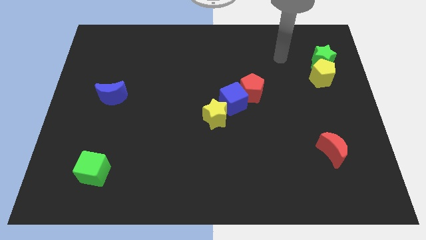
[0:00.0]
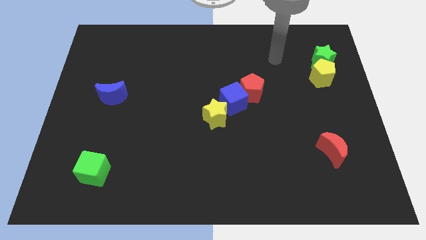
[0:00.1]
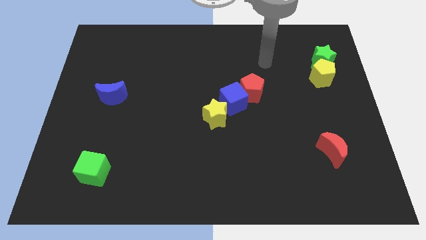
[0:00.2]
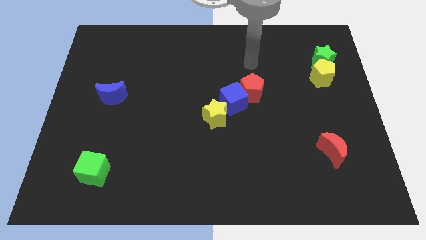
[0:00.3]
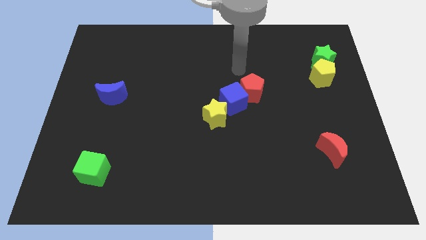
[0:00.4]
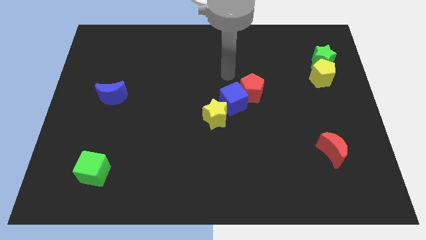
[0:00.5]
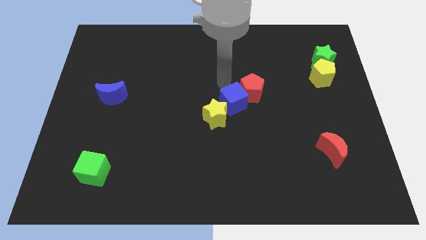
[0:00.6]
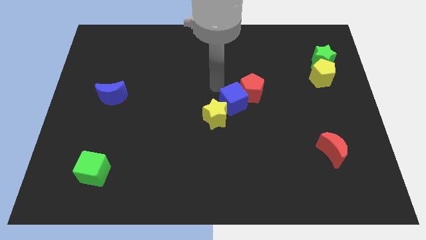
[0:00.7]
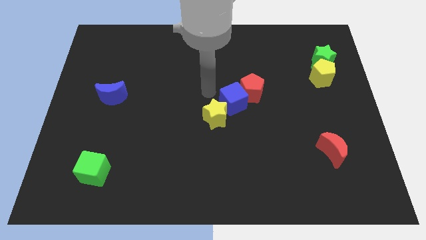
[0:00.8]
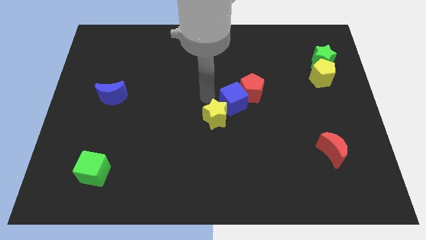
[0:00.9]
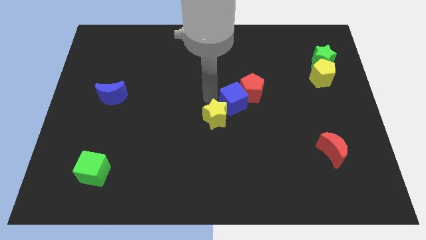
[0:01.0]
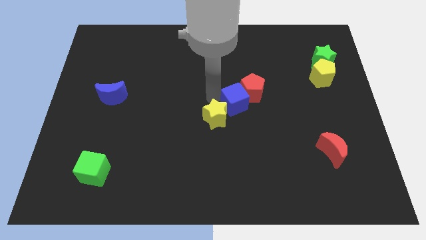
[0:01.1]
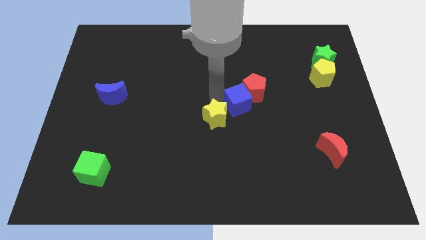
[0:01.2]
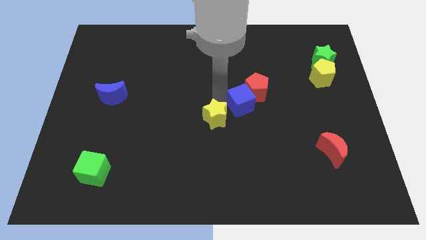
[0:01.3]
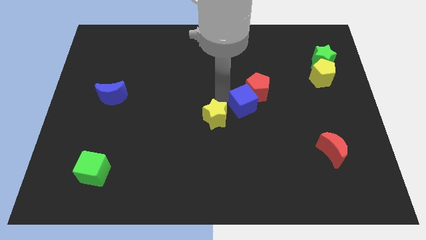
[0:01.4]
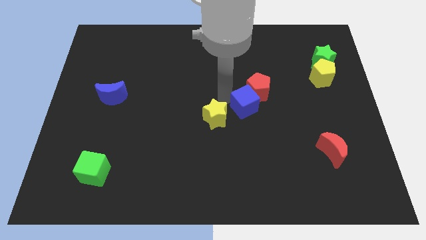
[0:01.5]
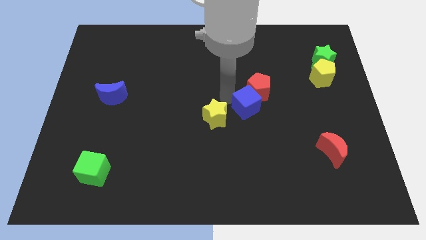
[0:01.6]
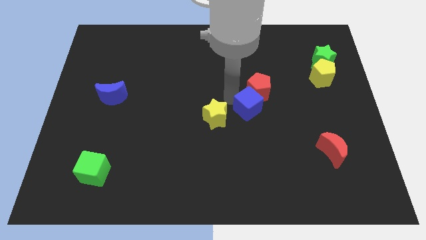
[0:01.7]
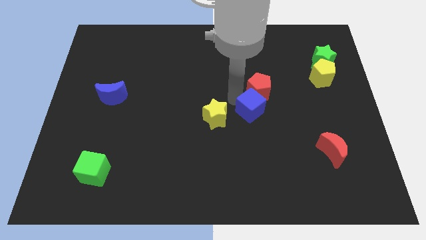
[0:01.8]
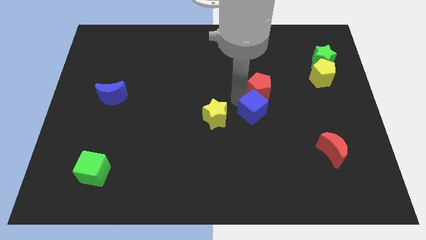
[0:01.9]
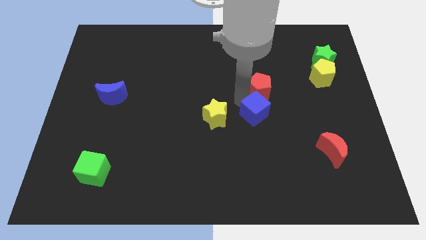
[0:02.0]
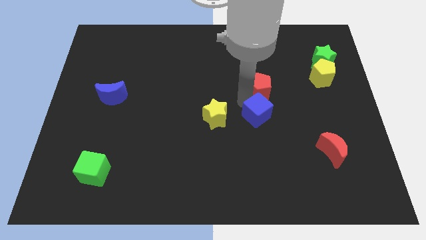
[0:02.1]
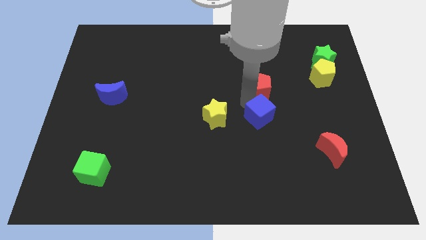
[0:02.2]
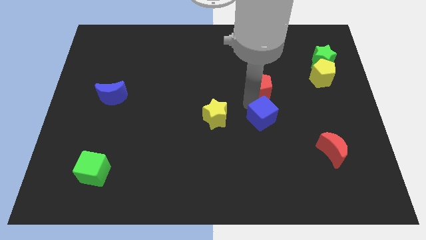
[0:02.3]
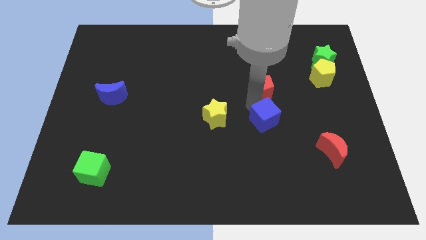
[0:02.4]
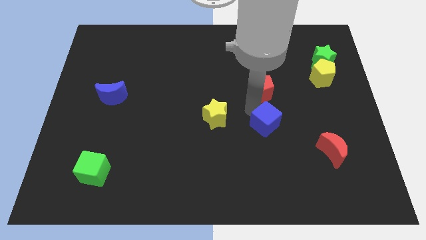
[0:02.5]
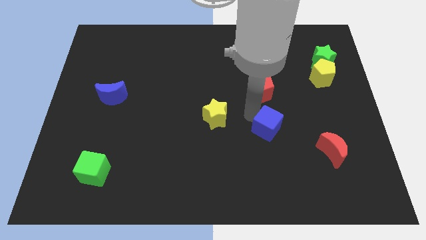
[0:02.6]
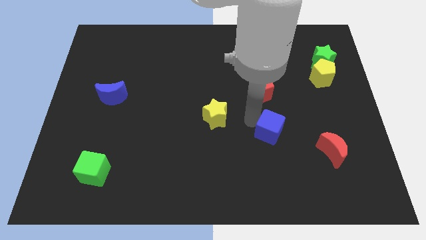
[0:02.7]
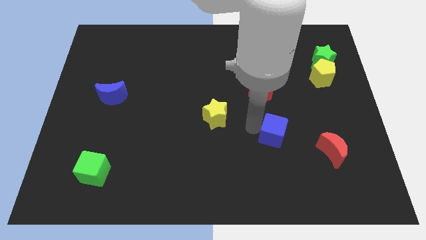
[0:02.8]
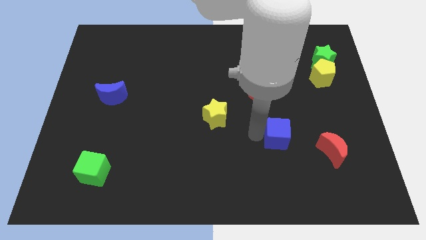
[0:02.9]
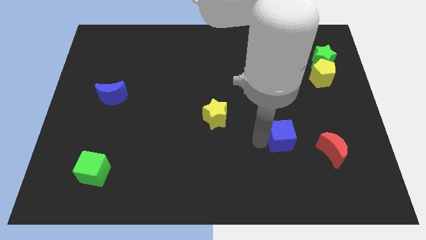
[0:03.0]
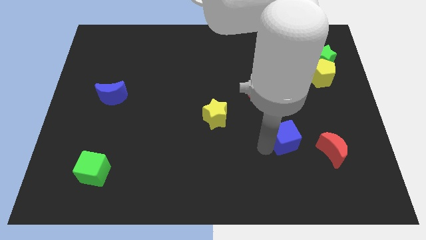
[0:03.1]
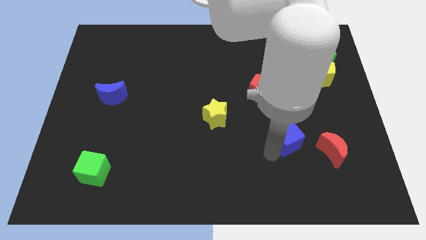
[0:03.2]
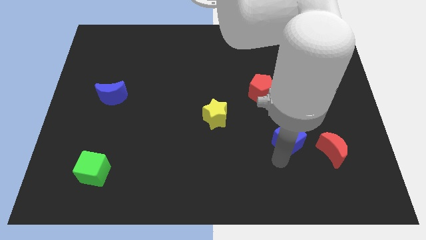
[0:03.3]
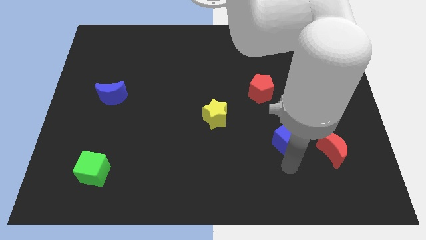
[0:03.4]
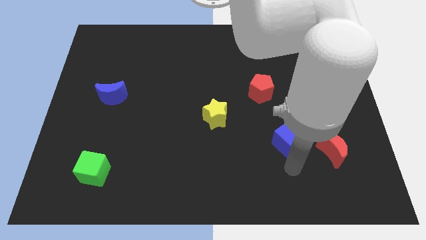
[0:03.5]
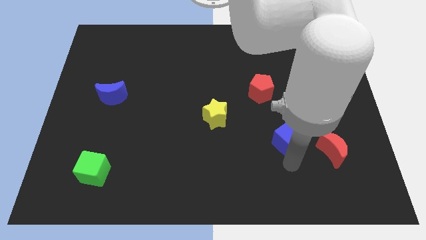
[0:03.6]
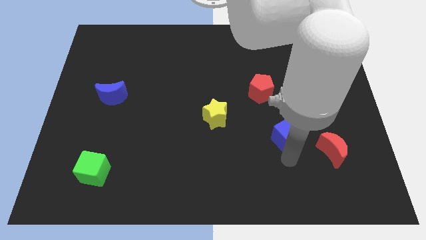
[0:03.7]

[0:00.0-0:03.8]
move the blue cube a bit right

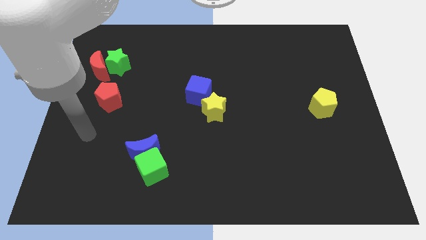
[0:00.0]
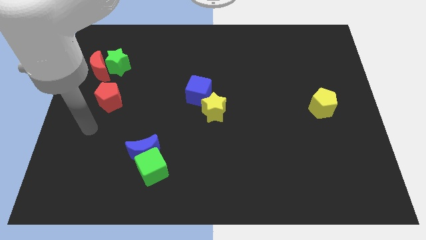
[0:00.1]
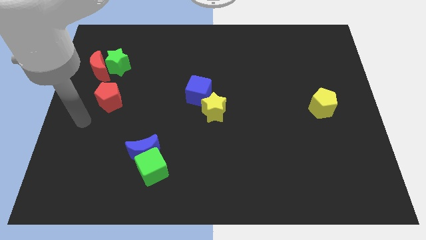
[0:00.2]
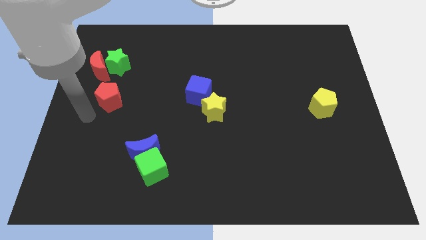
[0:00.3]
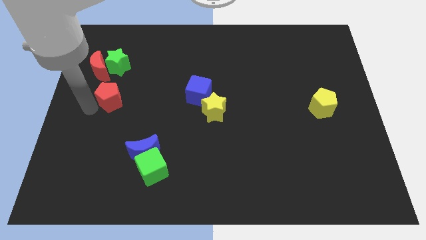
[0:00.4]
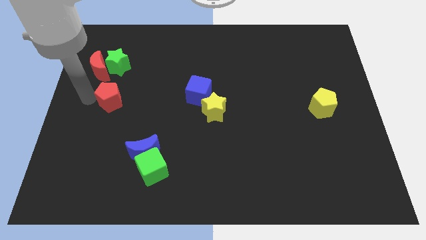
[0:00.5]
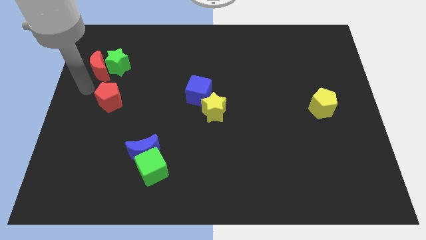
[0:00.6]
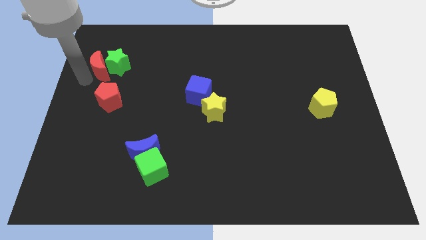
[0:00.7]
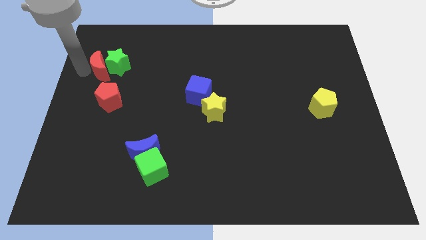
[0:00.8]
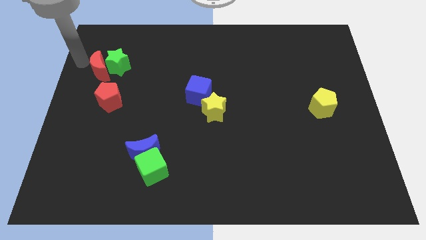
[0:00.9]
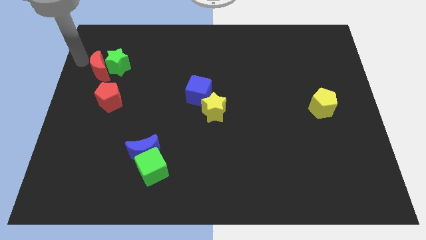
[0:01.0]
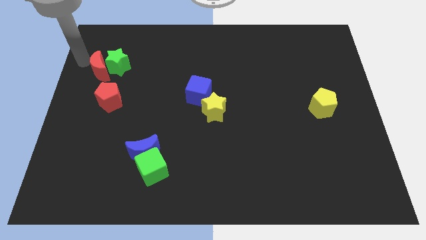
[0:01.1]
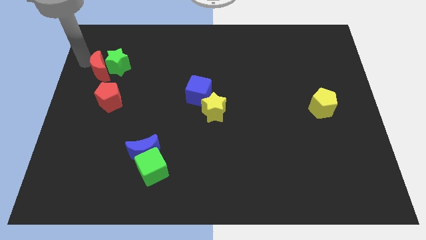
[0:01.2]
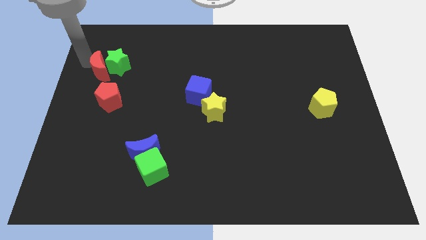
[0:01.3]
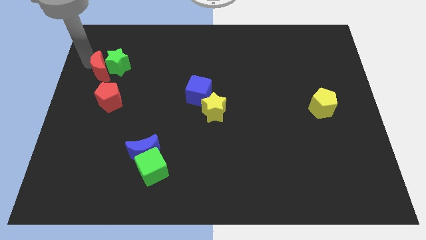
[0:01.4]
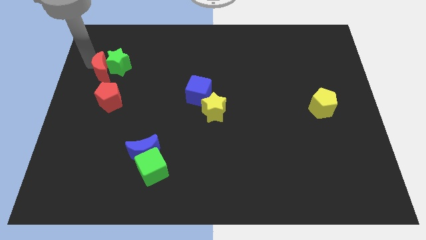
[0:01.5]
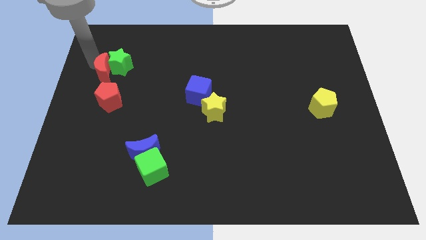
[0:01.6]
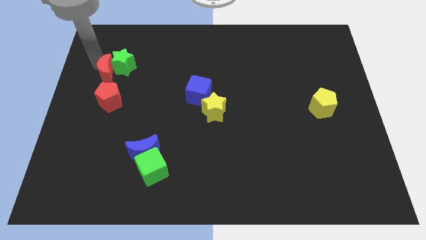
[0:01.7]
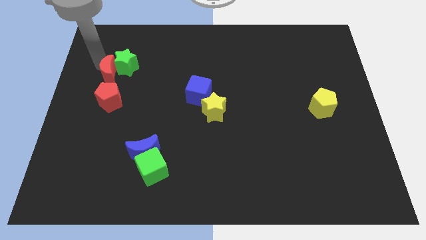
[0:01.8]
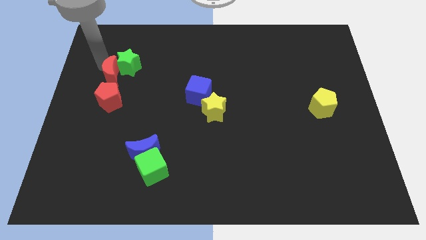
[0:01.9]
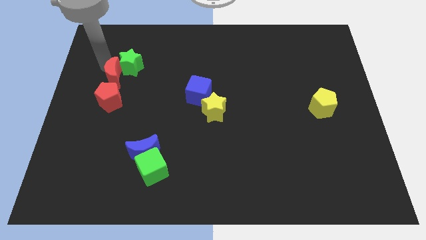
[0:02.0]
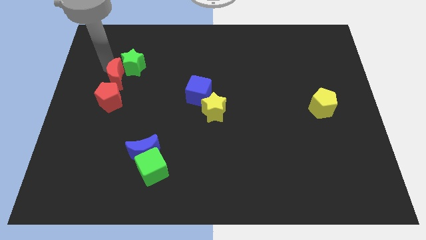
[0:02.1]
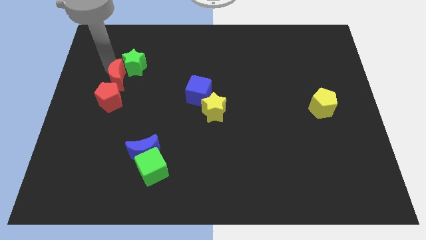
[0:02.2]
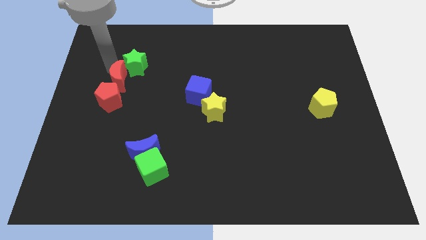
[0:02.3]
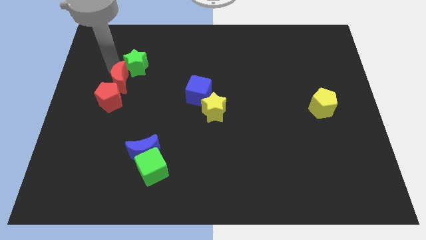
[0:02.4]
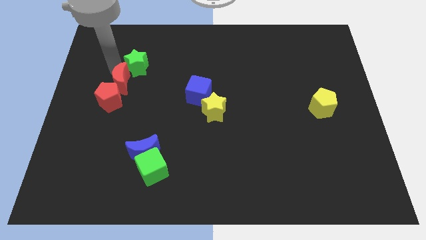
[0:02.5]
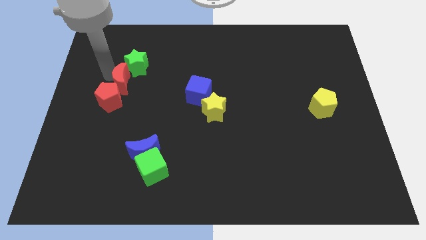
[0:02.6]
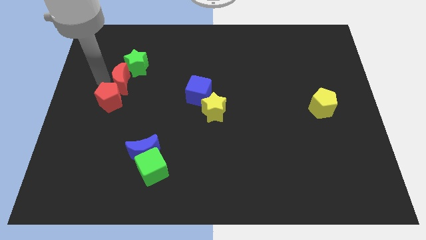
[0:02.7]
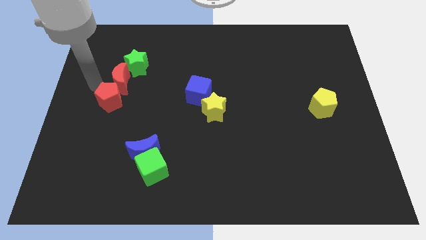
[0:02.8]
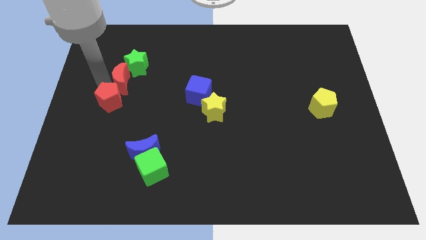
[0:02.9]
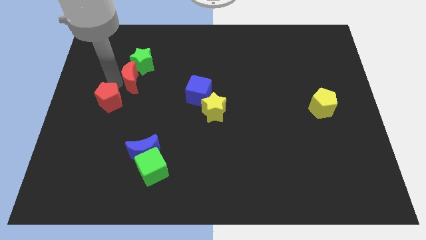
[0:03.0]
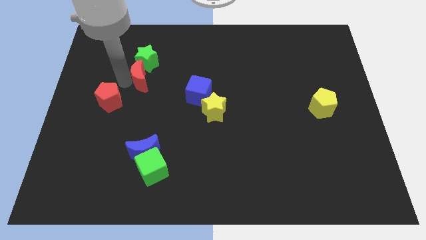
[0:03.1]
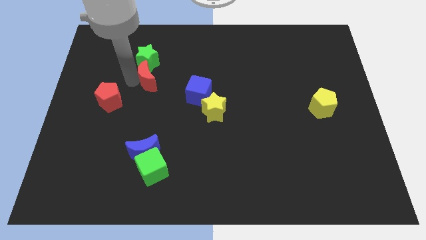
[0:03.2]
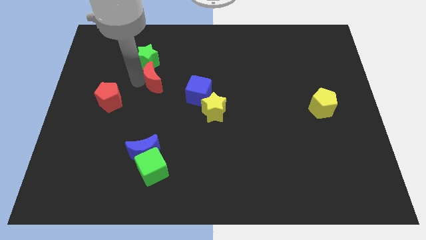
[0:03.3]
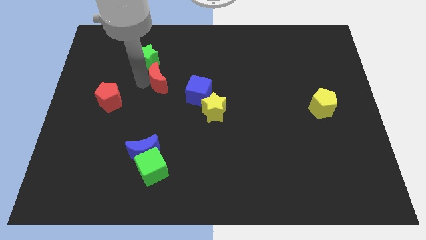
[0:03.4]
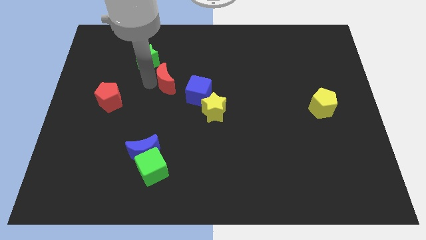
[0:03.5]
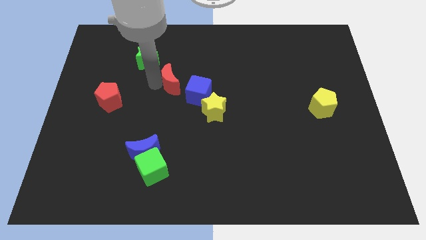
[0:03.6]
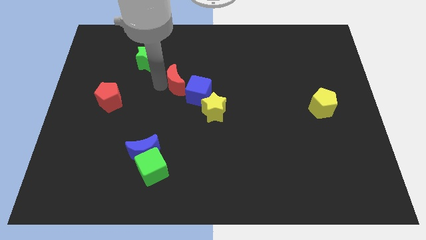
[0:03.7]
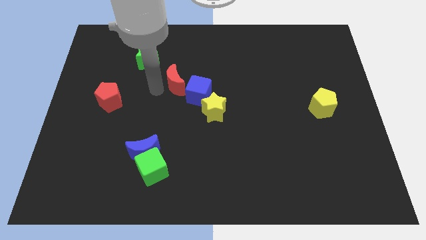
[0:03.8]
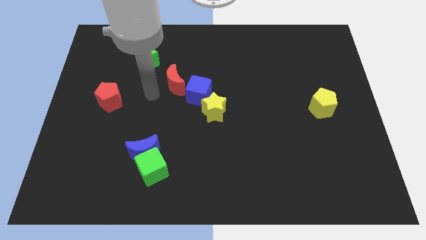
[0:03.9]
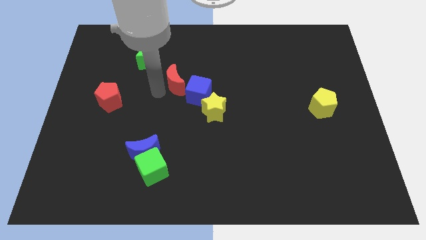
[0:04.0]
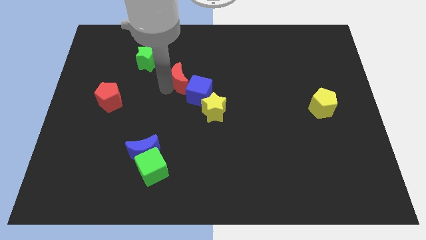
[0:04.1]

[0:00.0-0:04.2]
push the red moon right
